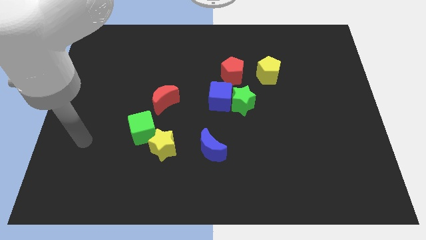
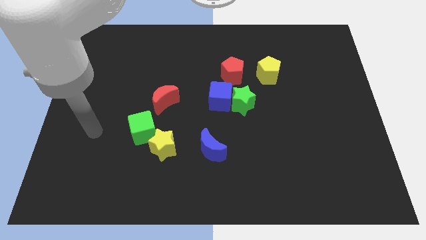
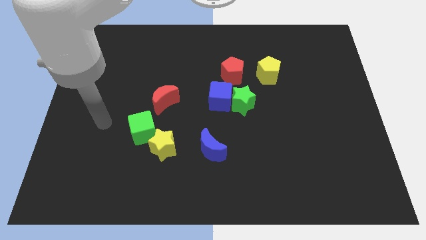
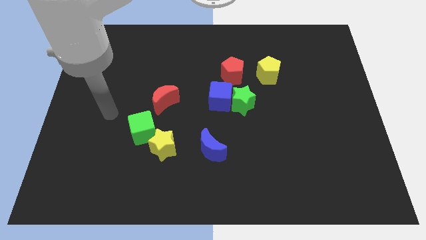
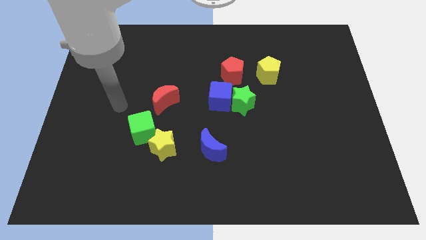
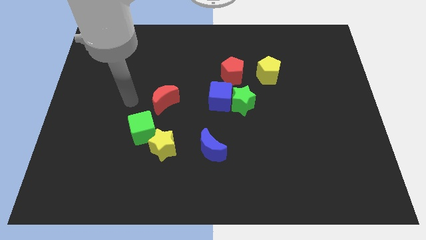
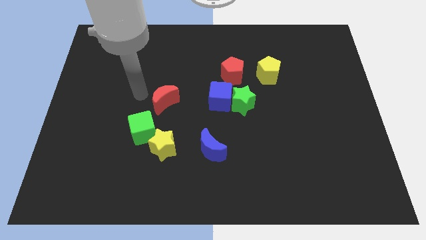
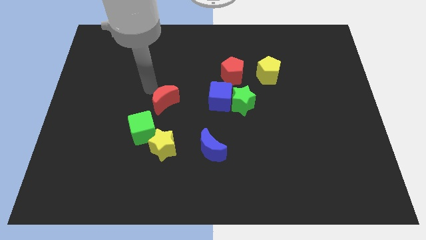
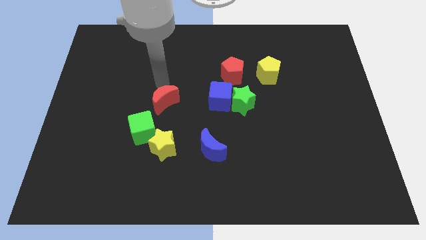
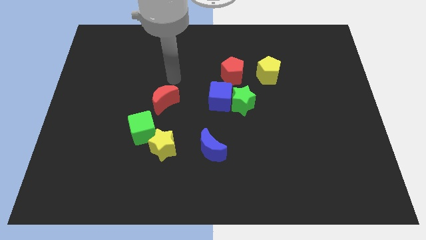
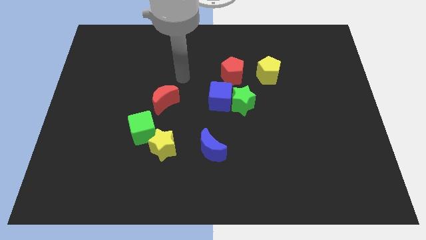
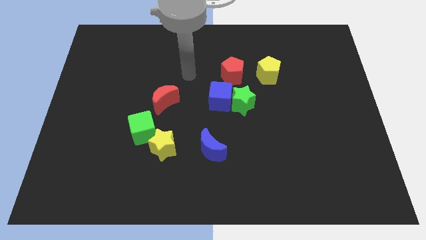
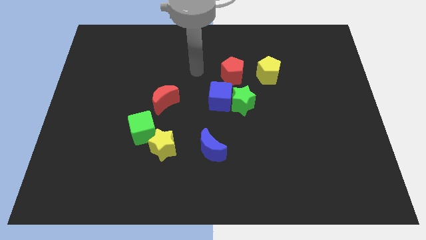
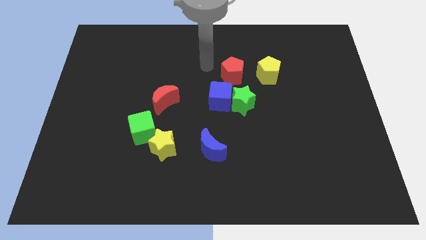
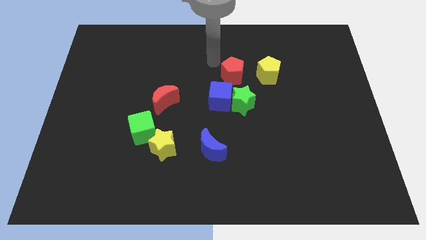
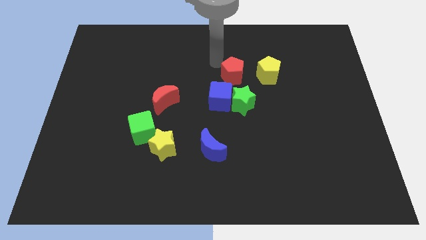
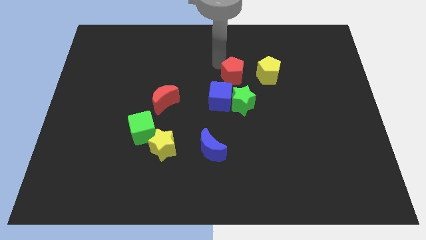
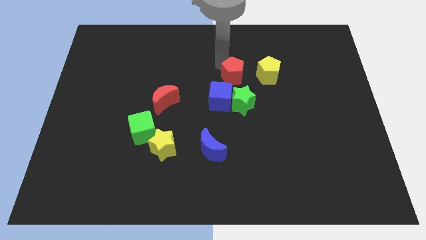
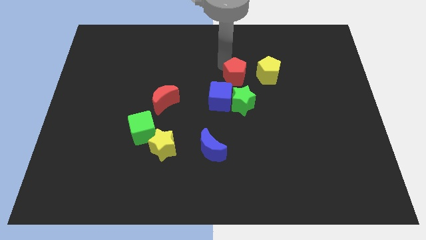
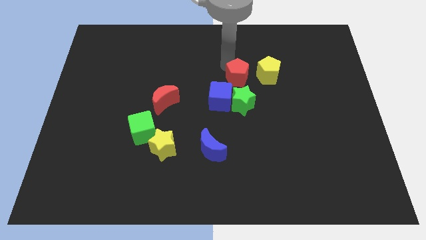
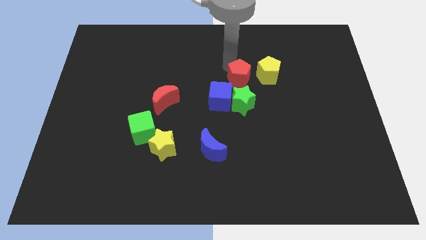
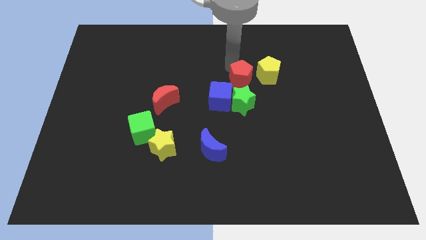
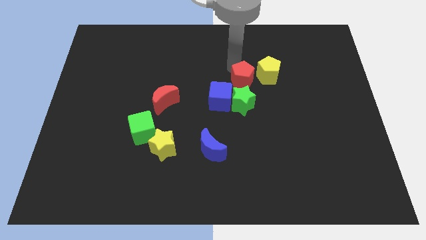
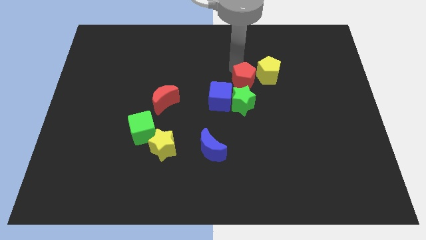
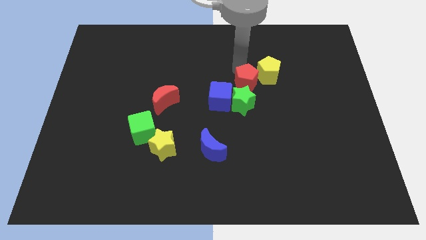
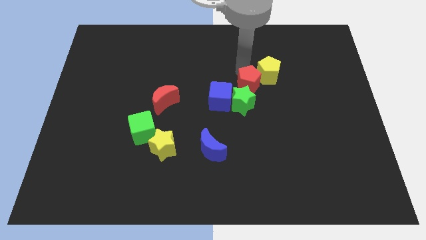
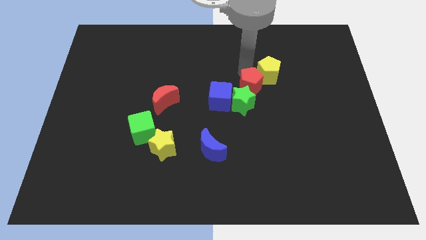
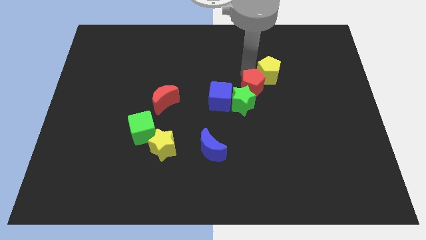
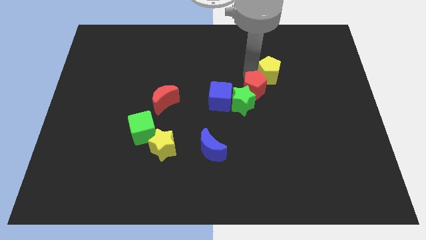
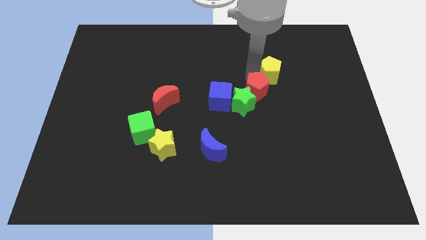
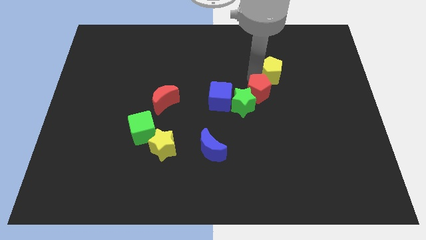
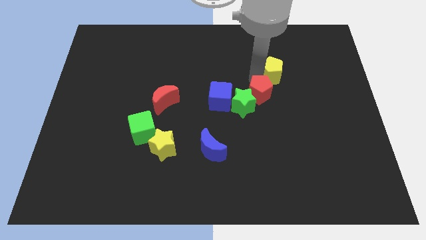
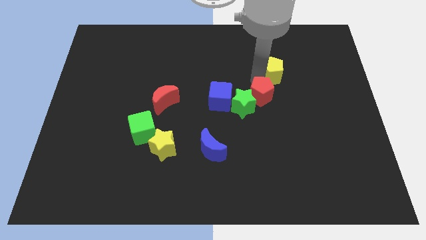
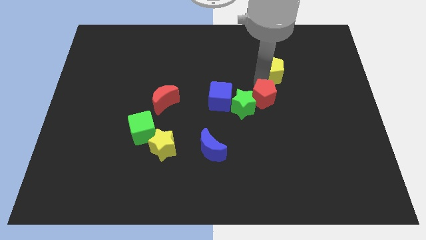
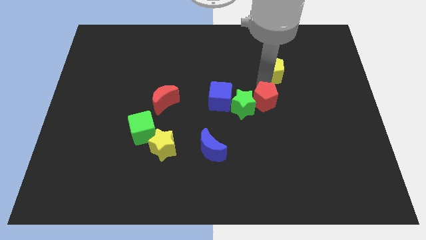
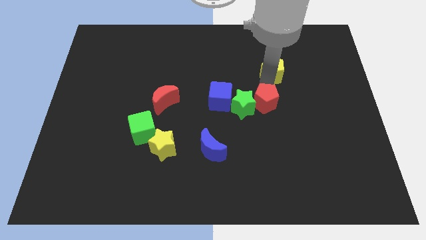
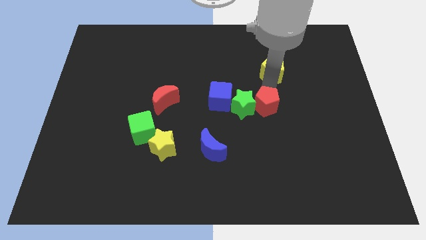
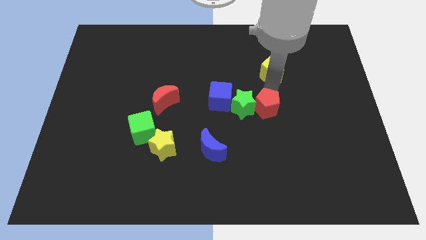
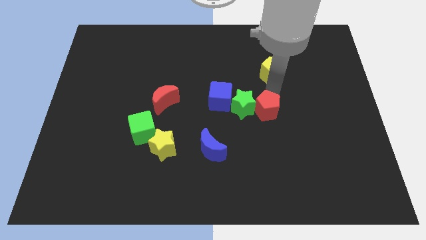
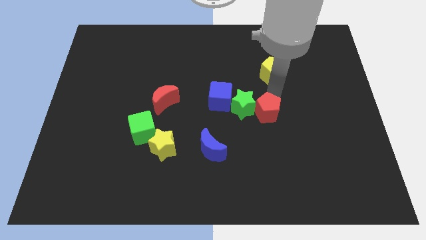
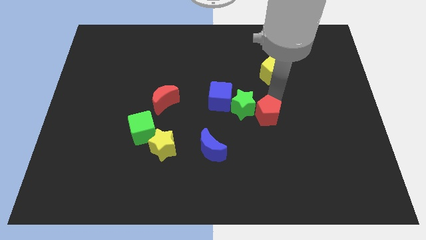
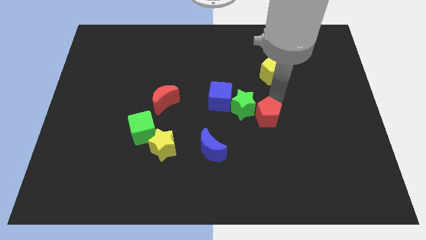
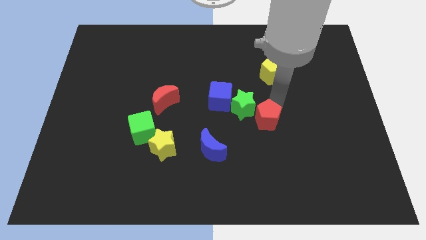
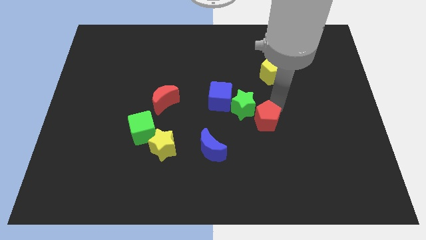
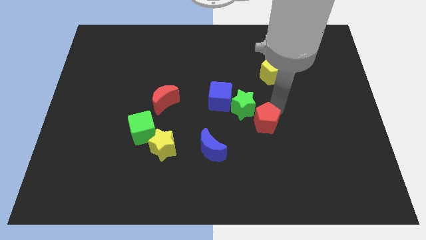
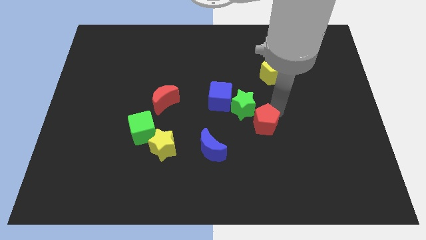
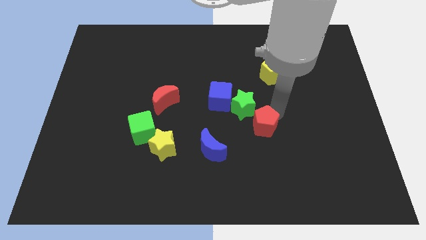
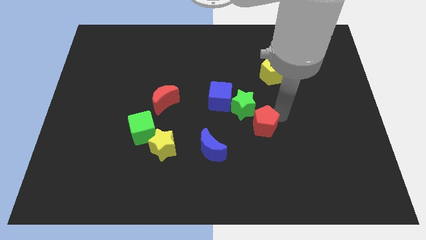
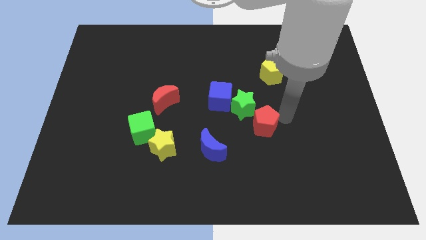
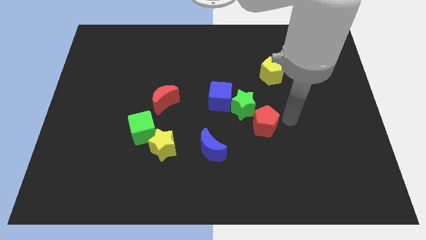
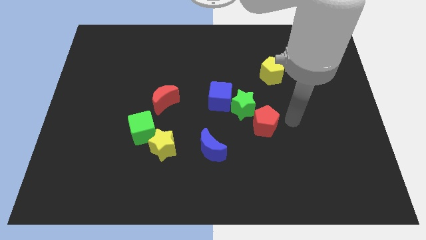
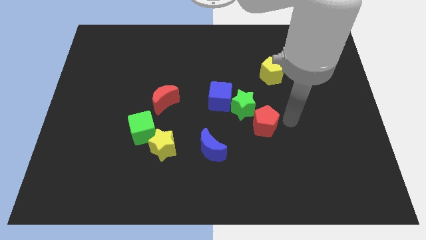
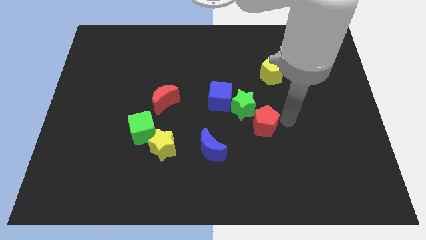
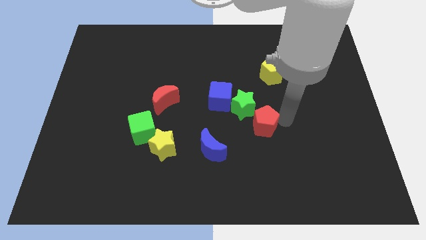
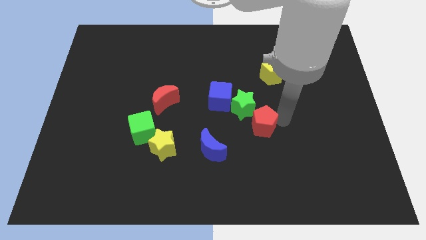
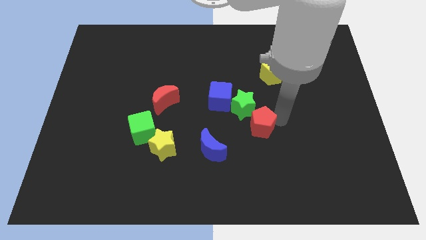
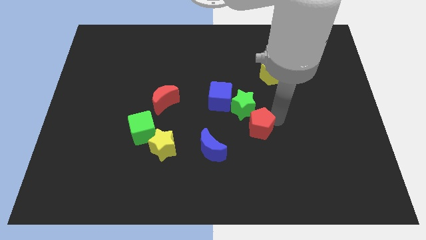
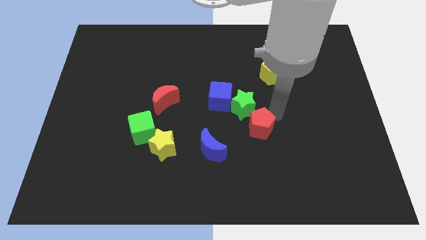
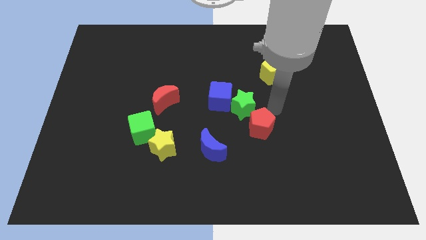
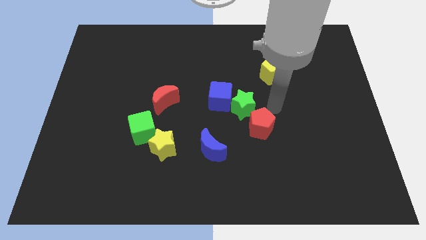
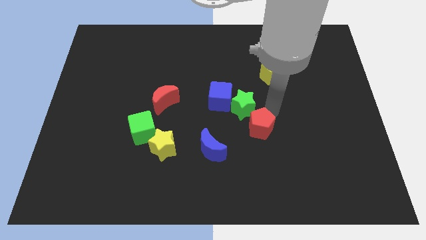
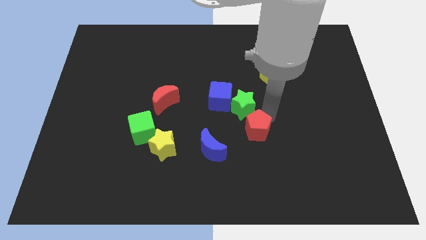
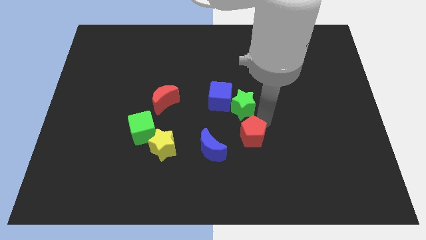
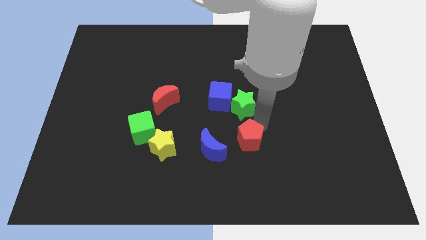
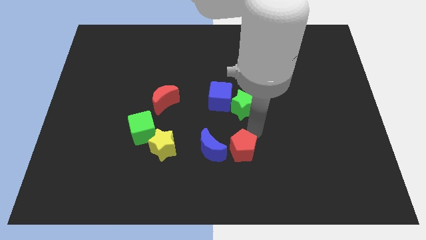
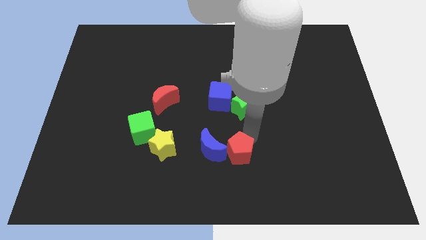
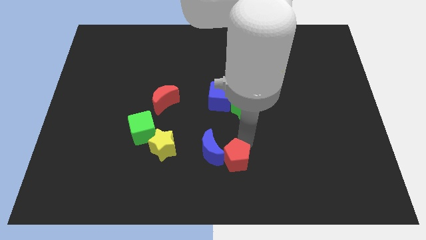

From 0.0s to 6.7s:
push the red pentagon to the bottom side

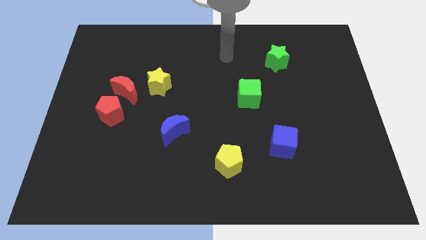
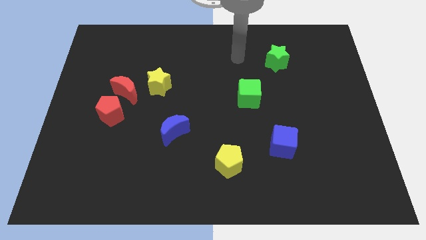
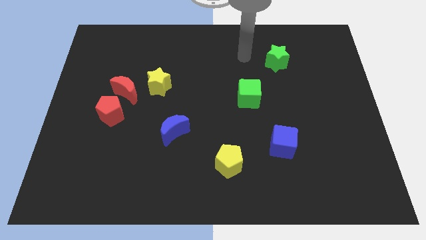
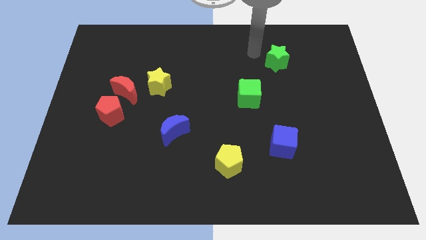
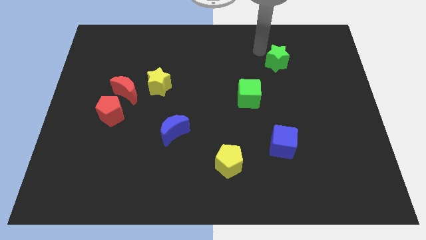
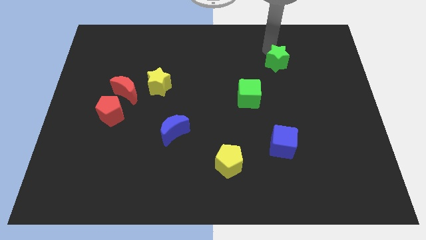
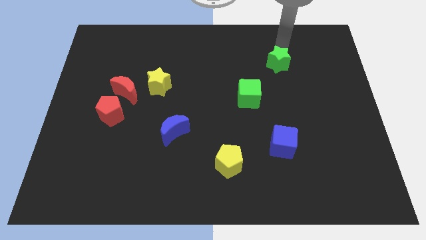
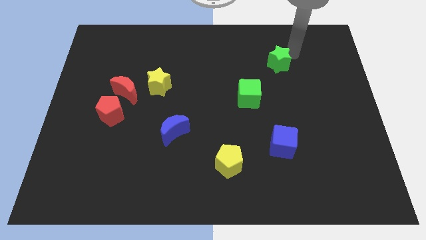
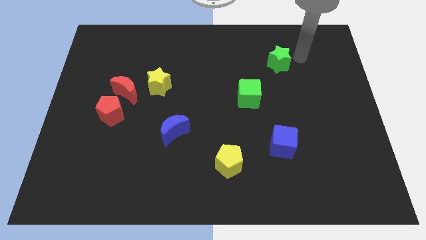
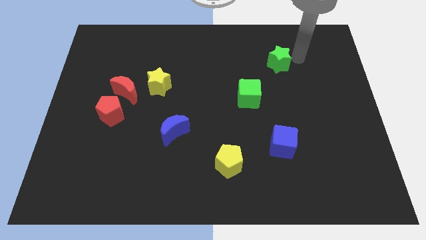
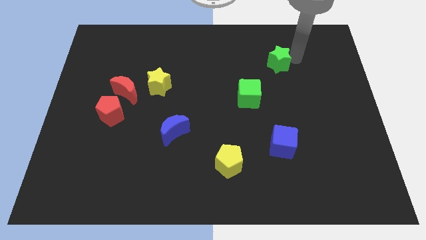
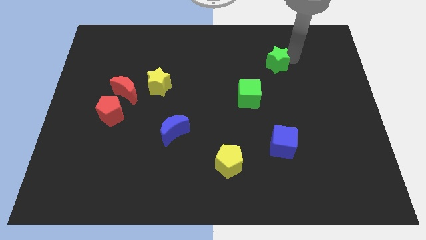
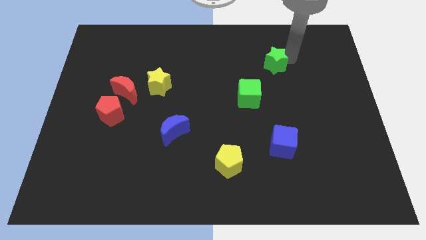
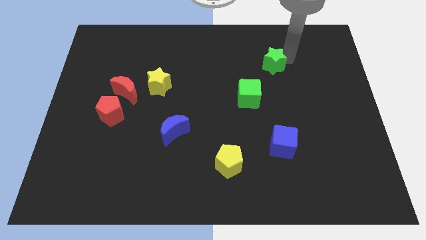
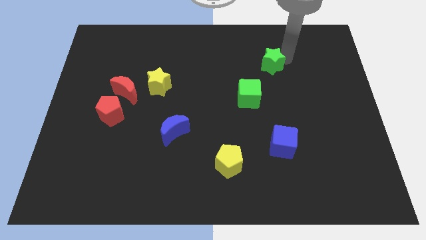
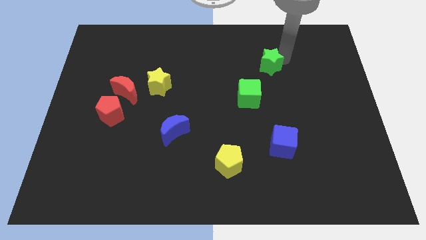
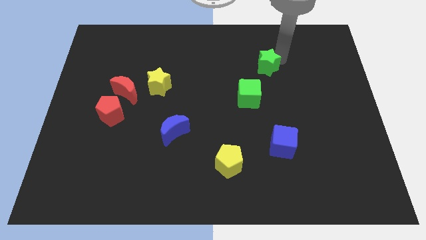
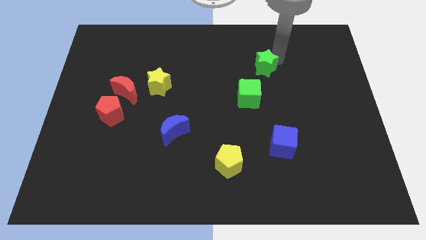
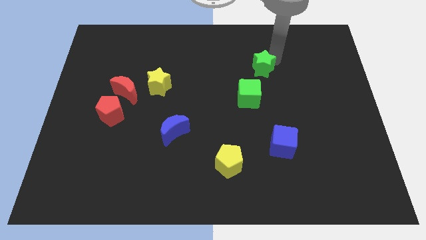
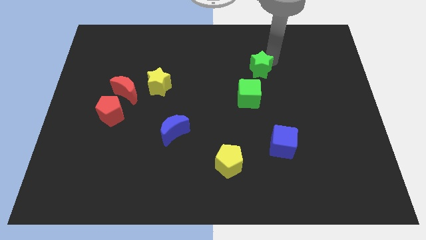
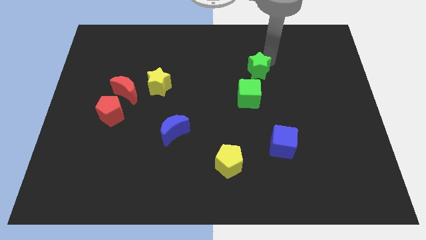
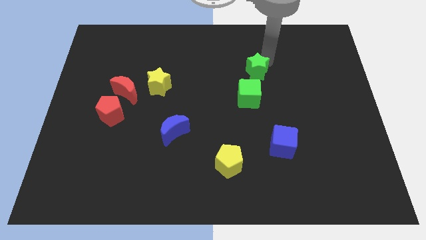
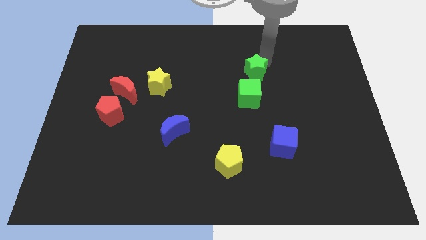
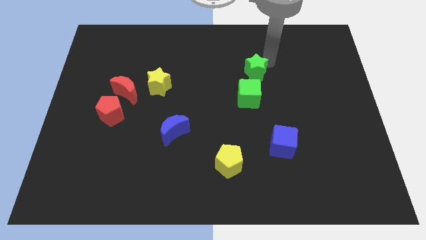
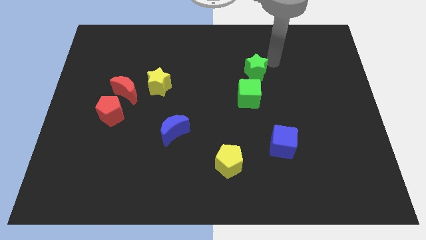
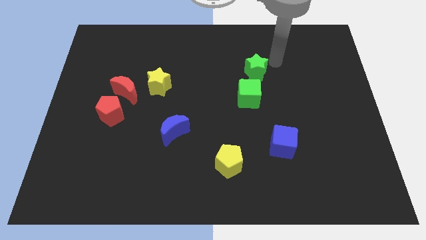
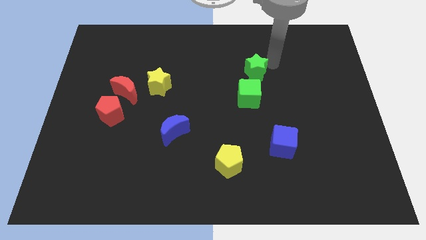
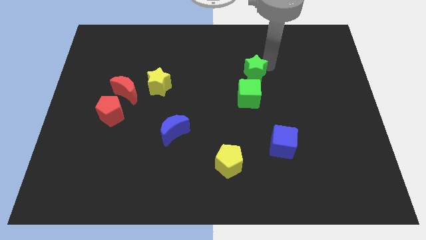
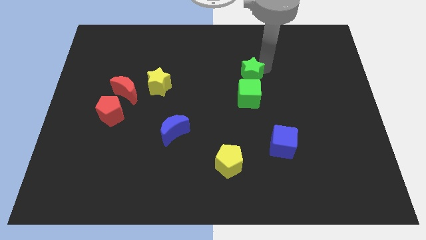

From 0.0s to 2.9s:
slide the green star to the center of the board
